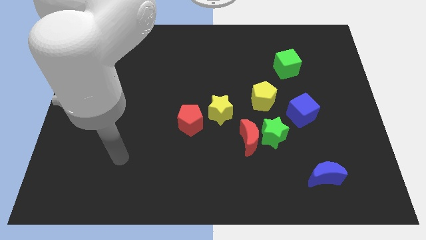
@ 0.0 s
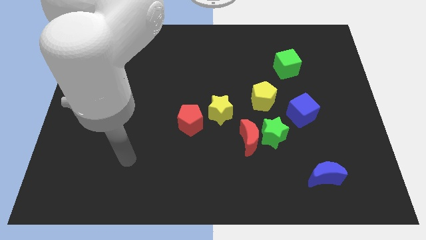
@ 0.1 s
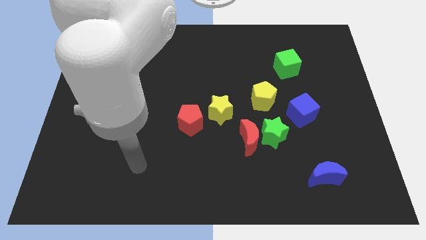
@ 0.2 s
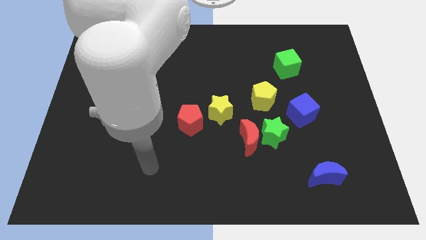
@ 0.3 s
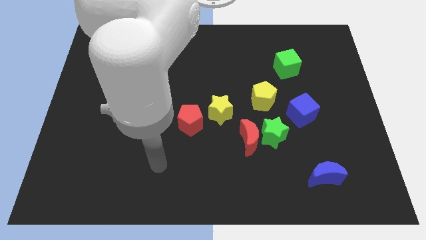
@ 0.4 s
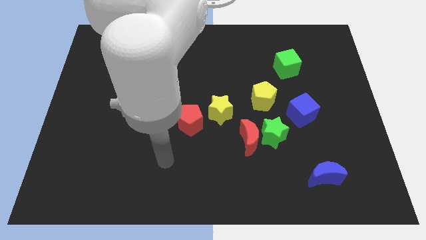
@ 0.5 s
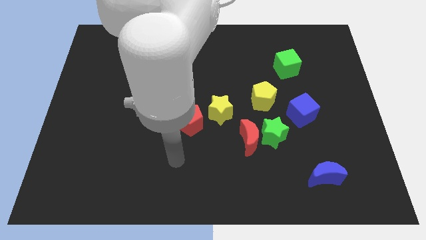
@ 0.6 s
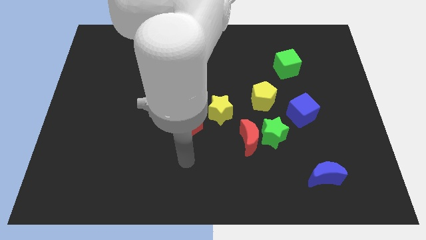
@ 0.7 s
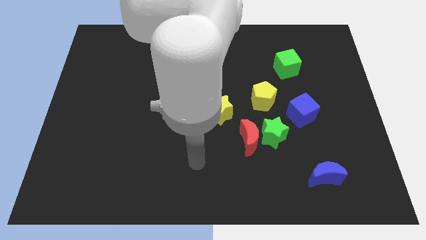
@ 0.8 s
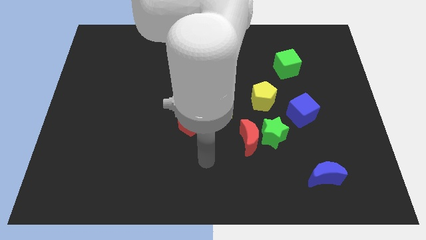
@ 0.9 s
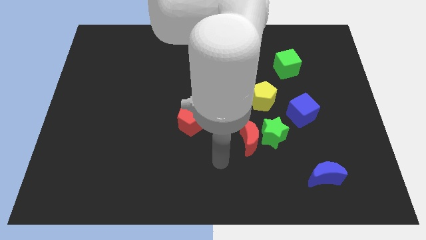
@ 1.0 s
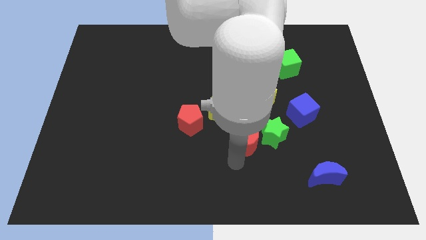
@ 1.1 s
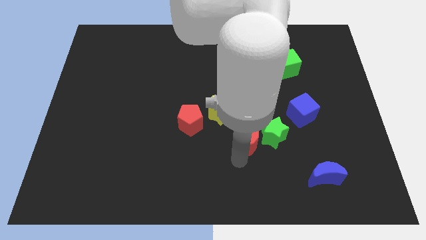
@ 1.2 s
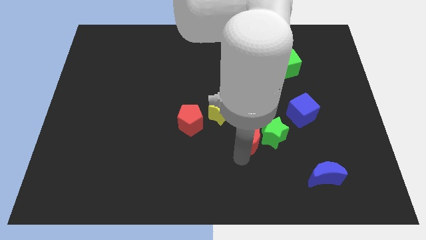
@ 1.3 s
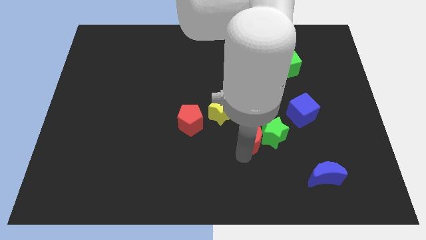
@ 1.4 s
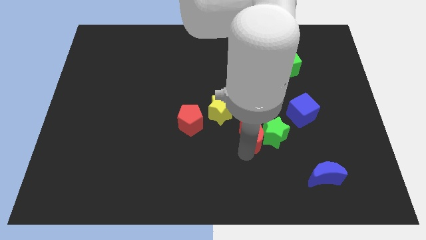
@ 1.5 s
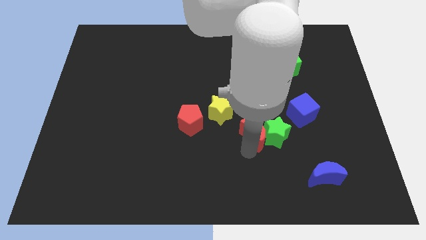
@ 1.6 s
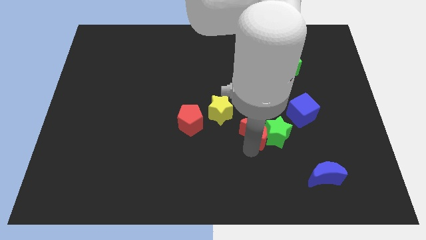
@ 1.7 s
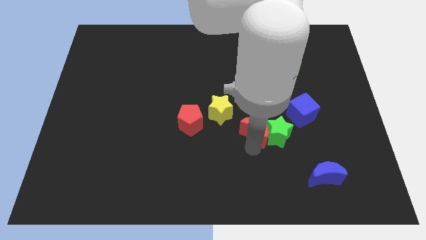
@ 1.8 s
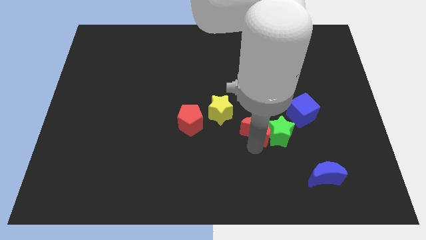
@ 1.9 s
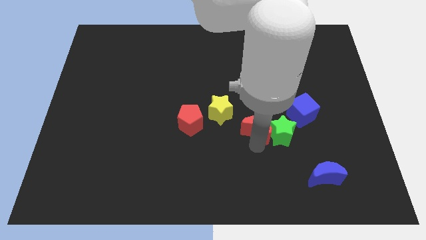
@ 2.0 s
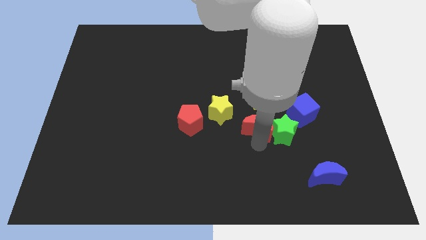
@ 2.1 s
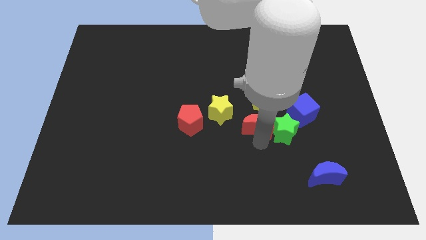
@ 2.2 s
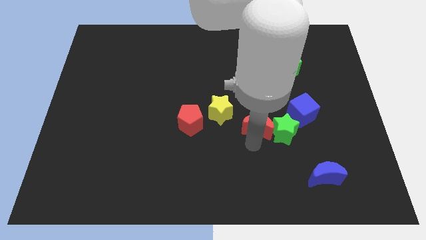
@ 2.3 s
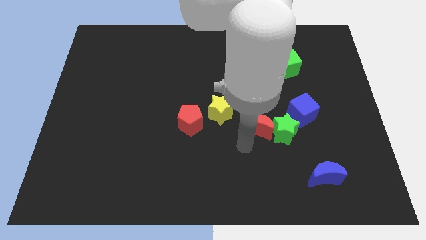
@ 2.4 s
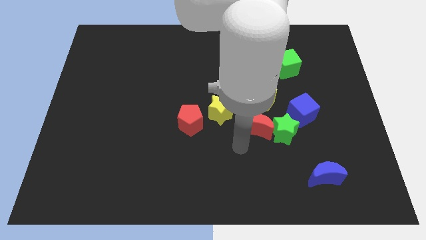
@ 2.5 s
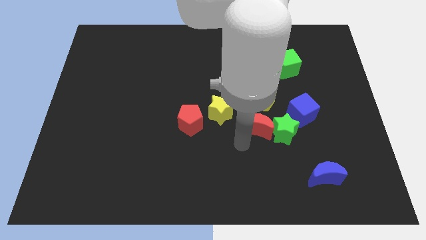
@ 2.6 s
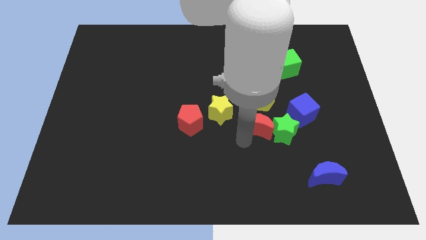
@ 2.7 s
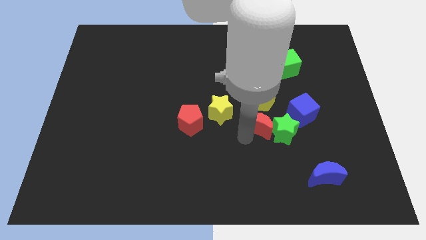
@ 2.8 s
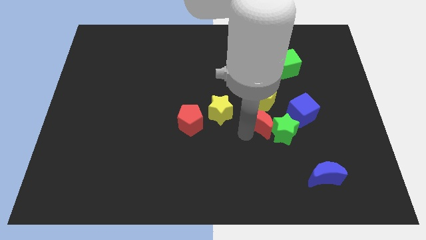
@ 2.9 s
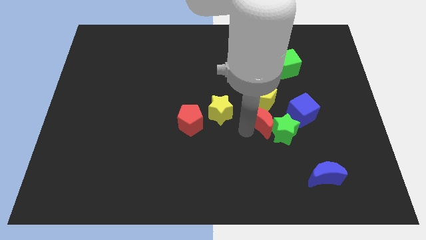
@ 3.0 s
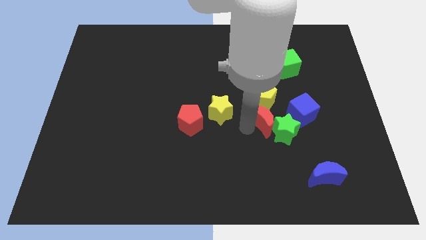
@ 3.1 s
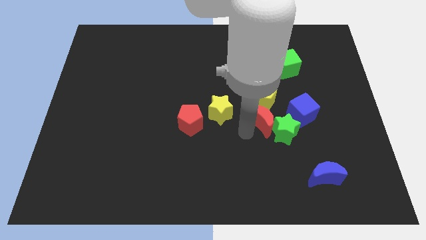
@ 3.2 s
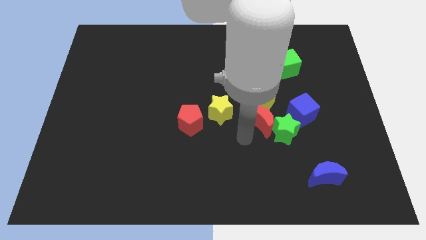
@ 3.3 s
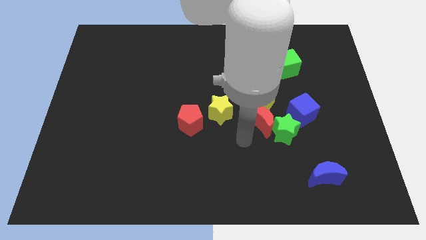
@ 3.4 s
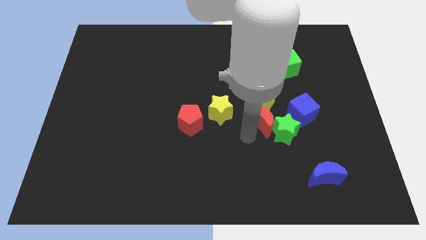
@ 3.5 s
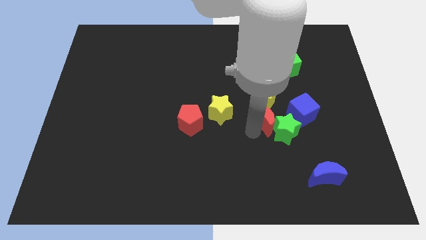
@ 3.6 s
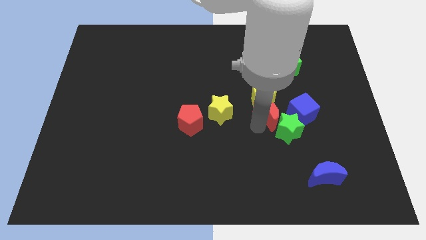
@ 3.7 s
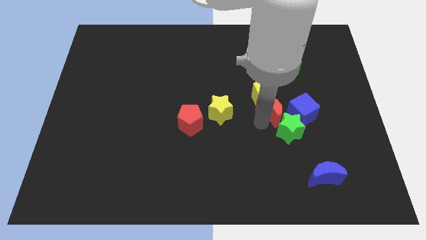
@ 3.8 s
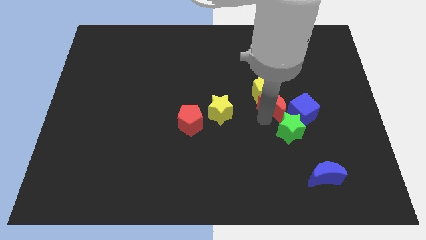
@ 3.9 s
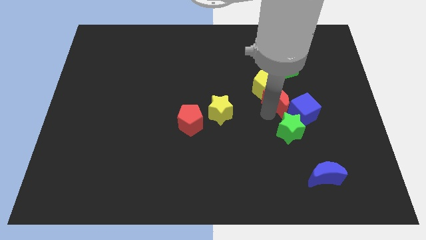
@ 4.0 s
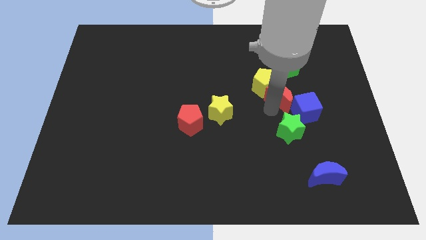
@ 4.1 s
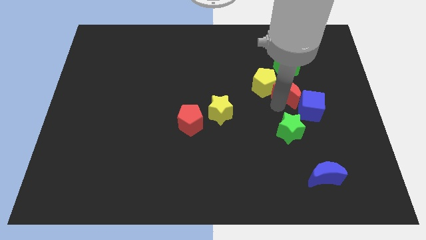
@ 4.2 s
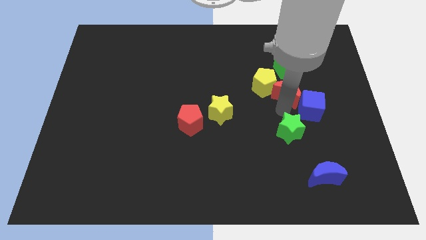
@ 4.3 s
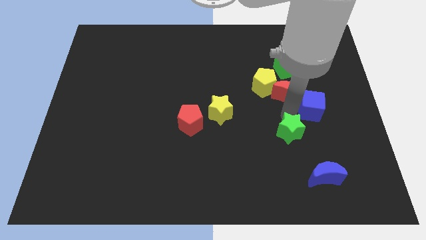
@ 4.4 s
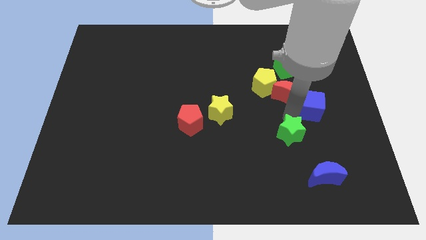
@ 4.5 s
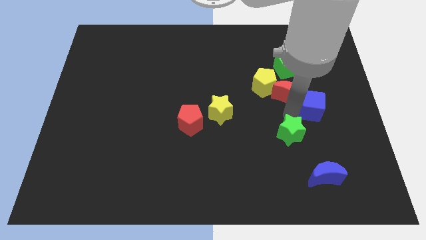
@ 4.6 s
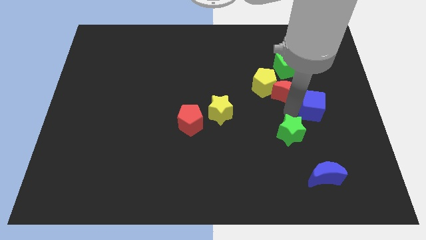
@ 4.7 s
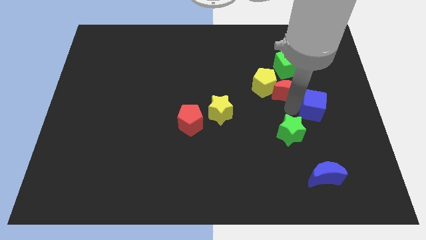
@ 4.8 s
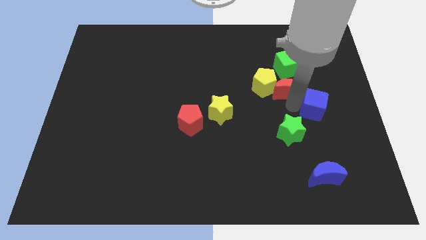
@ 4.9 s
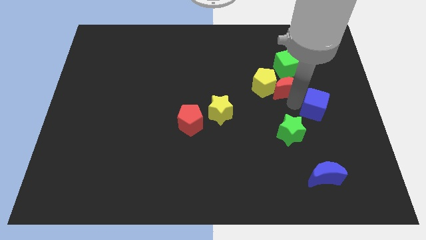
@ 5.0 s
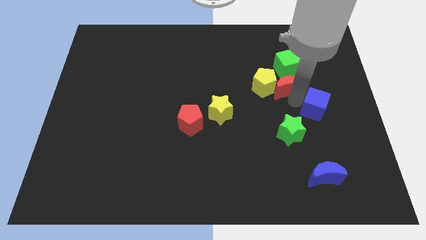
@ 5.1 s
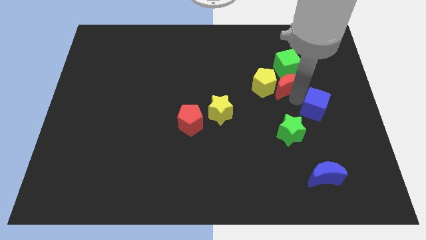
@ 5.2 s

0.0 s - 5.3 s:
move the red moon to the top right side of the yellow pentagon

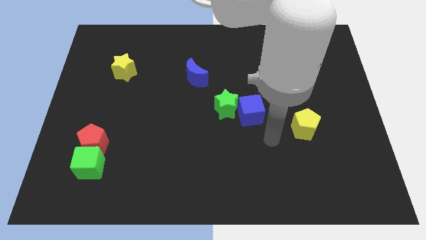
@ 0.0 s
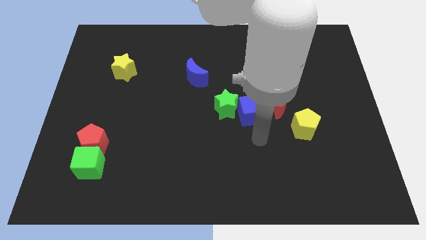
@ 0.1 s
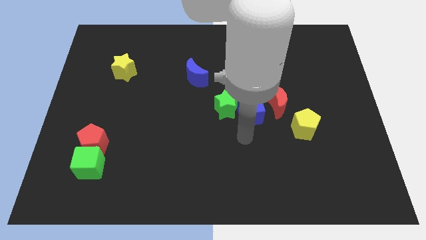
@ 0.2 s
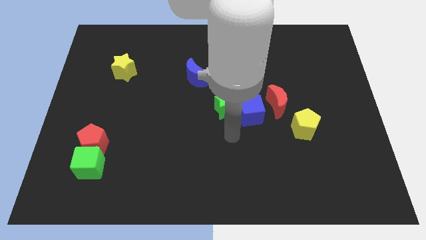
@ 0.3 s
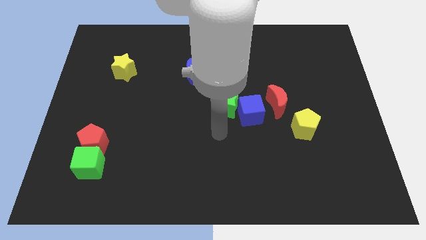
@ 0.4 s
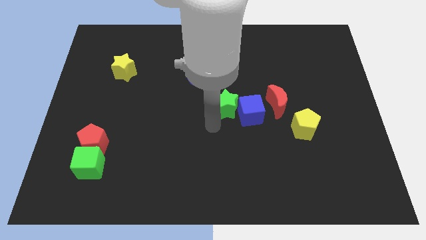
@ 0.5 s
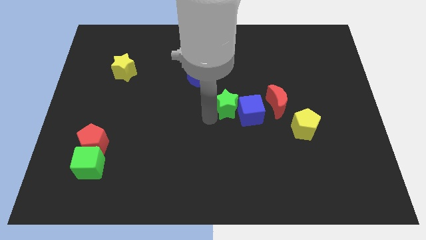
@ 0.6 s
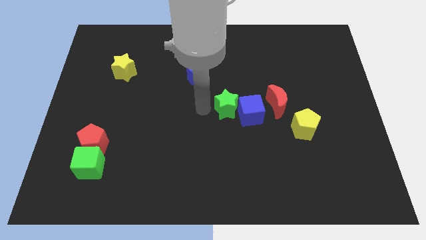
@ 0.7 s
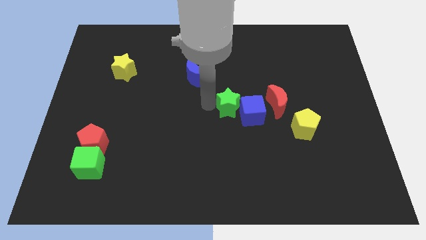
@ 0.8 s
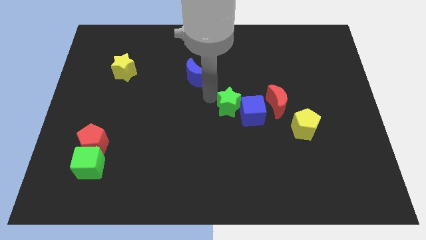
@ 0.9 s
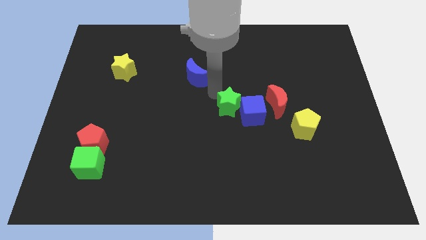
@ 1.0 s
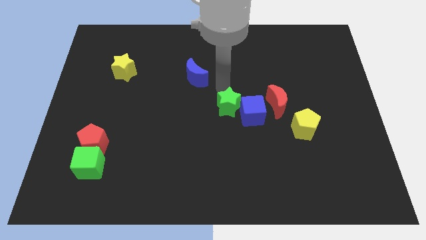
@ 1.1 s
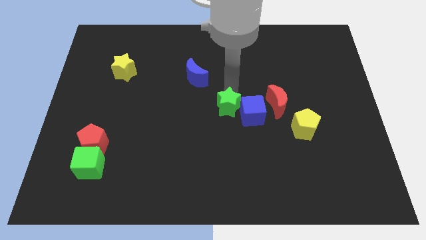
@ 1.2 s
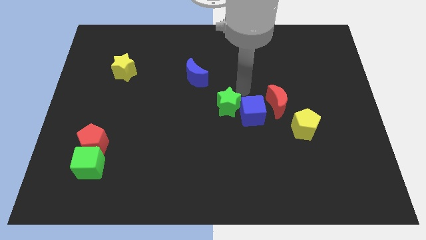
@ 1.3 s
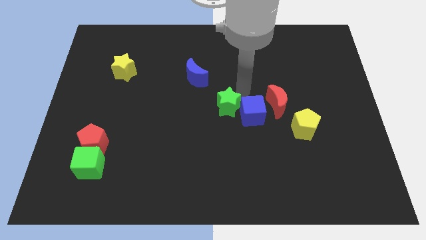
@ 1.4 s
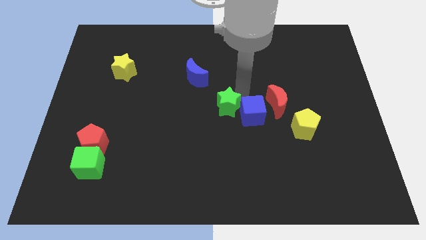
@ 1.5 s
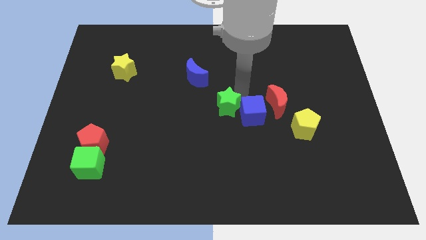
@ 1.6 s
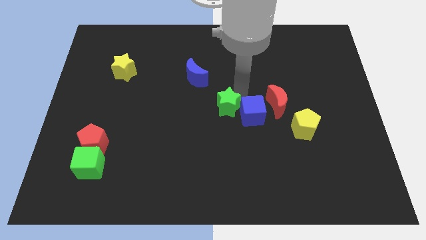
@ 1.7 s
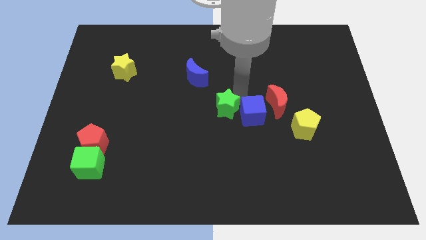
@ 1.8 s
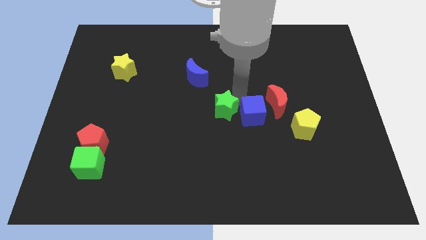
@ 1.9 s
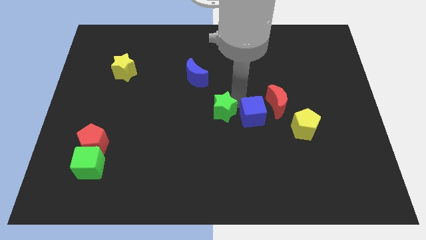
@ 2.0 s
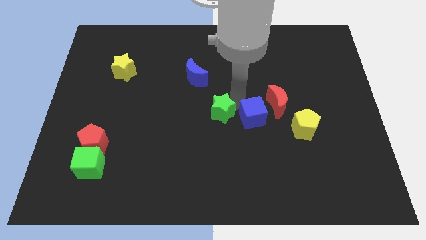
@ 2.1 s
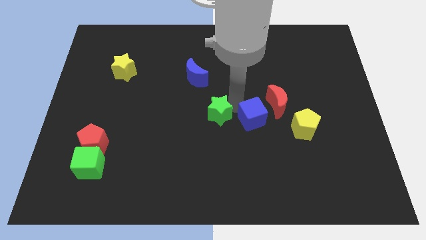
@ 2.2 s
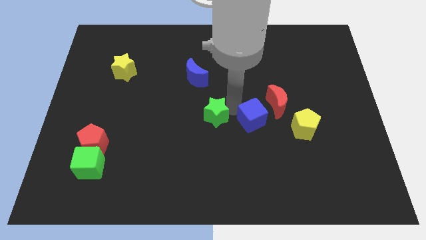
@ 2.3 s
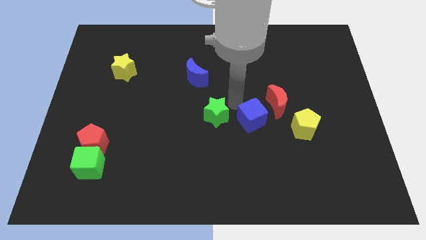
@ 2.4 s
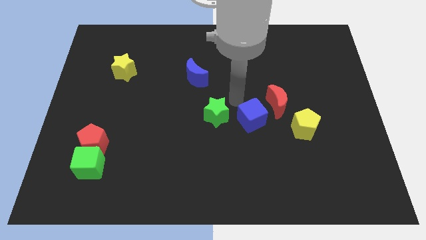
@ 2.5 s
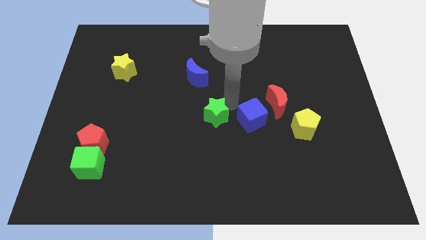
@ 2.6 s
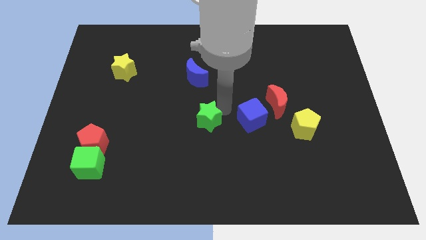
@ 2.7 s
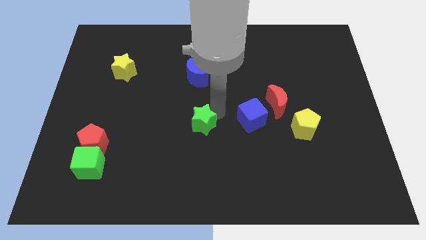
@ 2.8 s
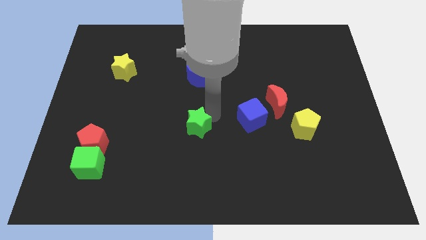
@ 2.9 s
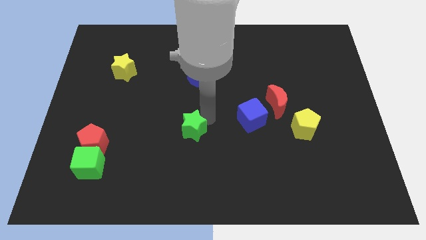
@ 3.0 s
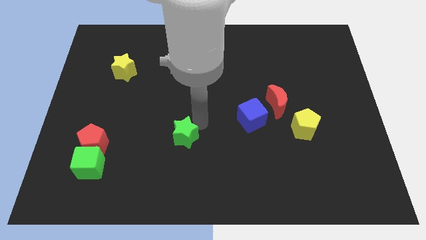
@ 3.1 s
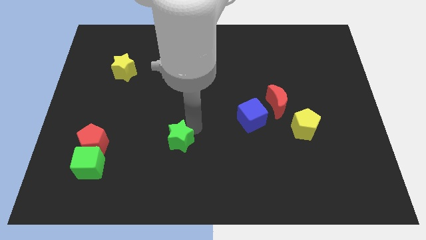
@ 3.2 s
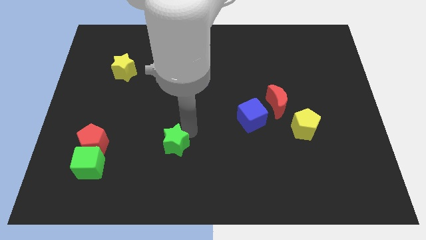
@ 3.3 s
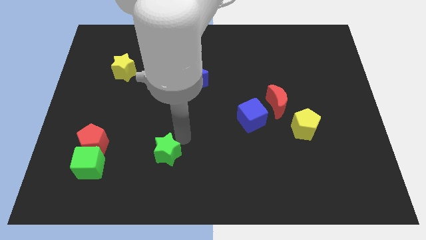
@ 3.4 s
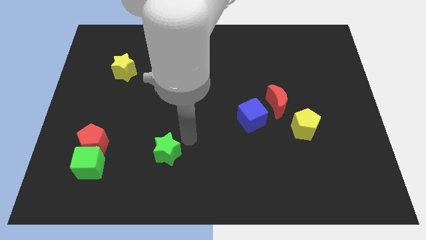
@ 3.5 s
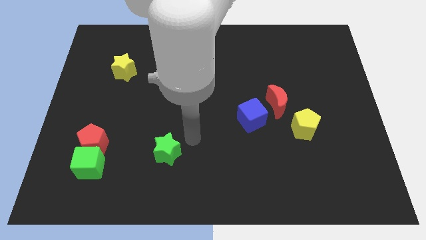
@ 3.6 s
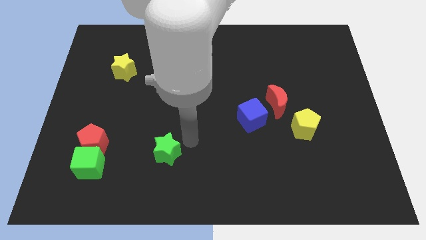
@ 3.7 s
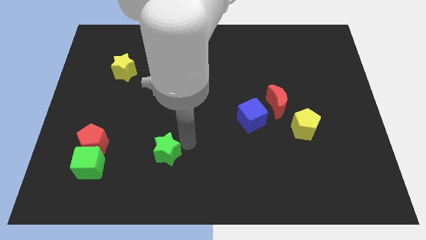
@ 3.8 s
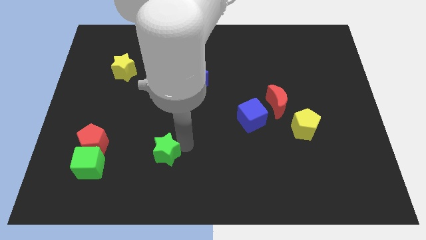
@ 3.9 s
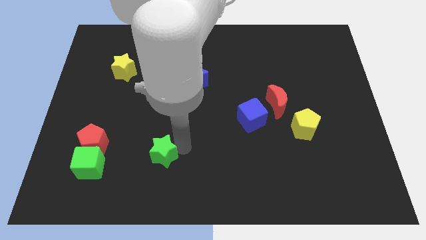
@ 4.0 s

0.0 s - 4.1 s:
put the green star to the right of the green cube
